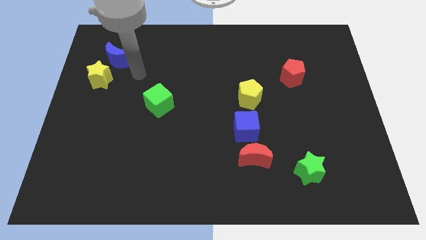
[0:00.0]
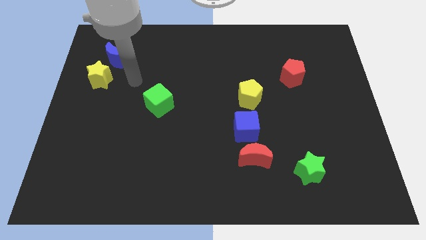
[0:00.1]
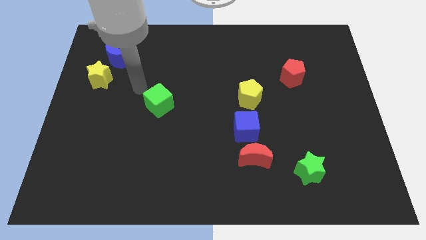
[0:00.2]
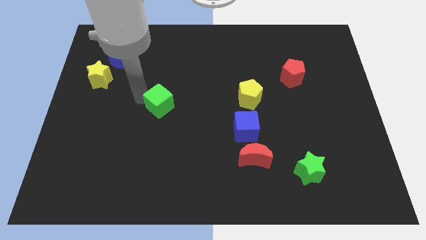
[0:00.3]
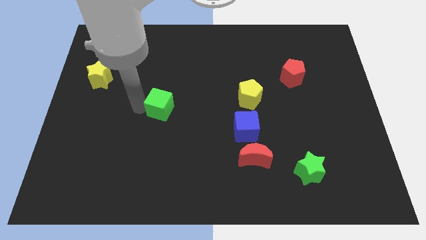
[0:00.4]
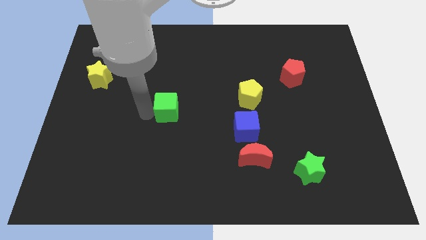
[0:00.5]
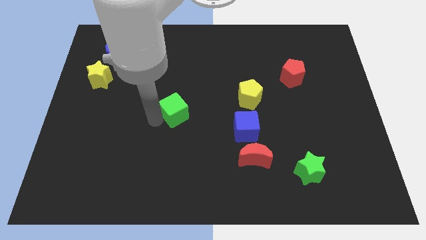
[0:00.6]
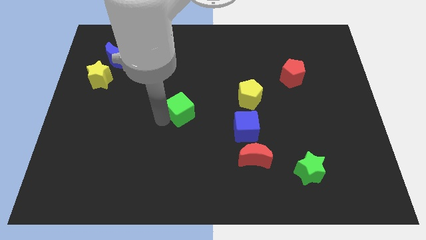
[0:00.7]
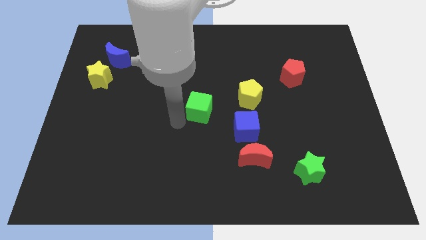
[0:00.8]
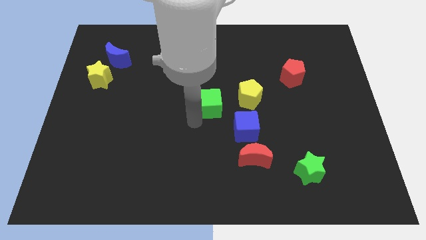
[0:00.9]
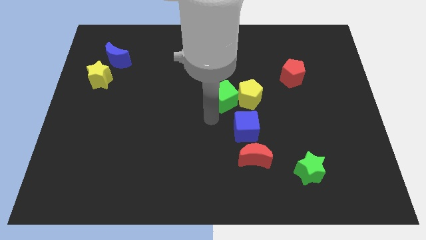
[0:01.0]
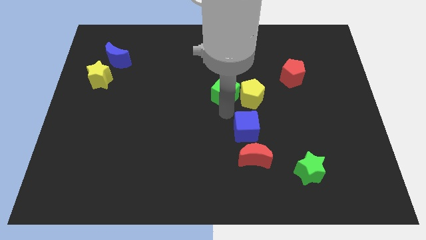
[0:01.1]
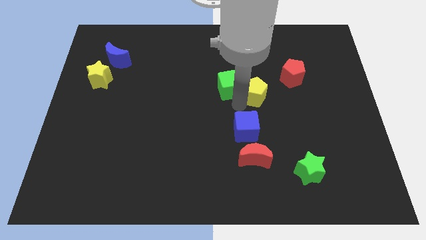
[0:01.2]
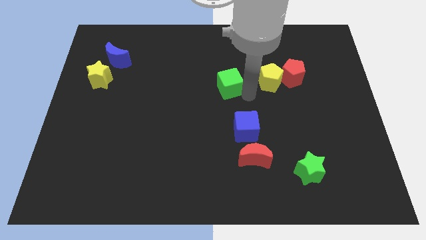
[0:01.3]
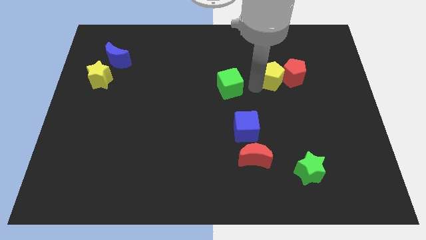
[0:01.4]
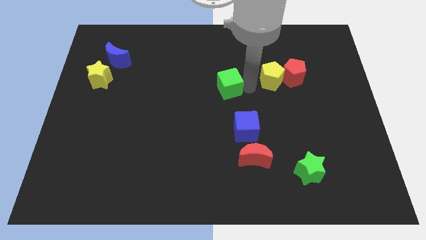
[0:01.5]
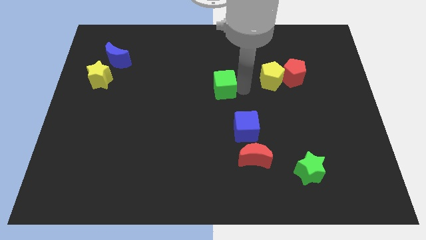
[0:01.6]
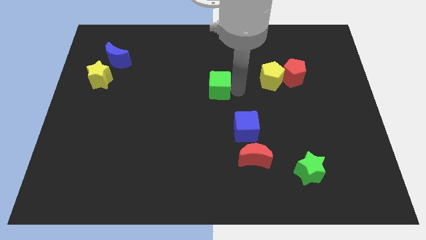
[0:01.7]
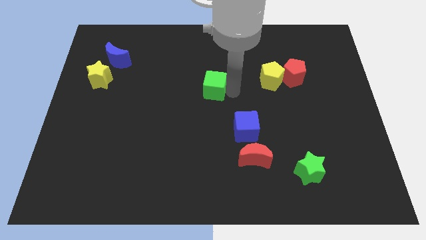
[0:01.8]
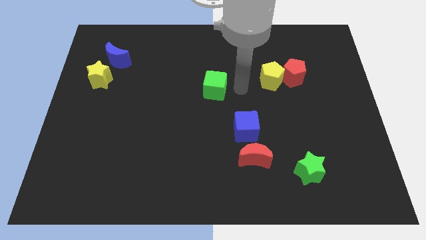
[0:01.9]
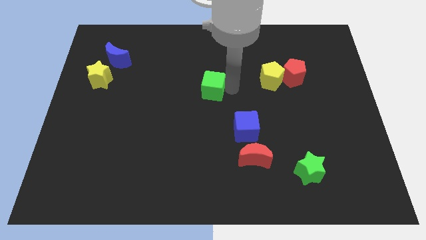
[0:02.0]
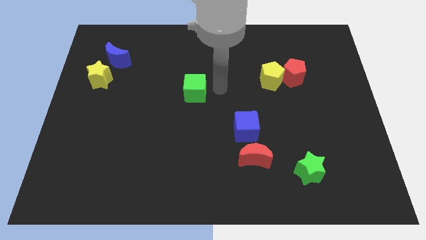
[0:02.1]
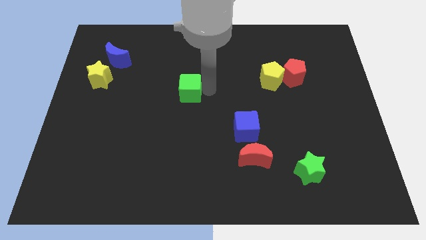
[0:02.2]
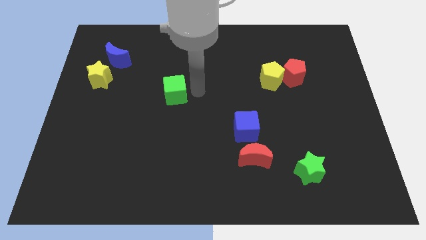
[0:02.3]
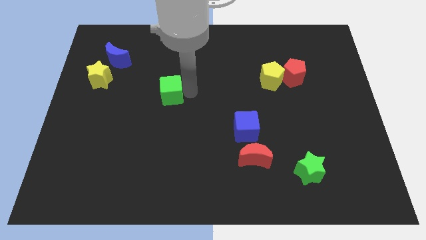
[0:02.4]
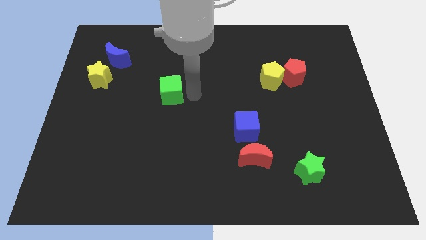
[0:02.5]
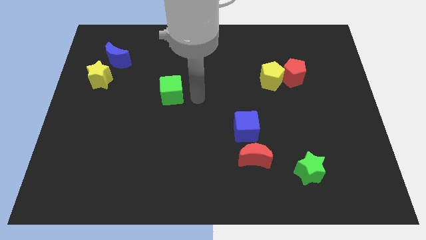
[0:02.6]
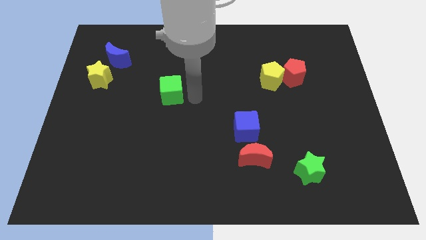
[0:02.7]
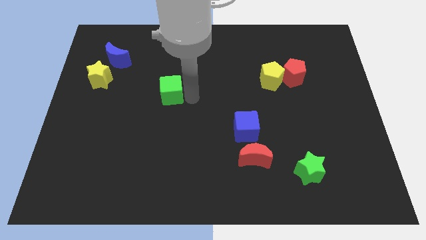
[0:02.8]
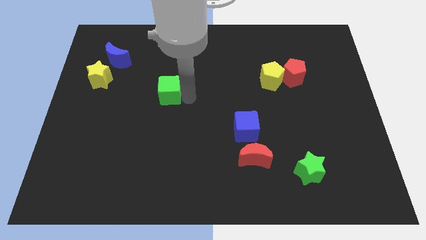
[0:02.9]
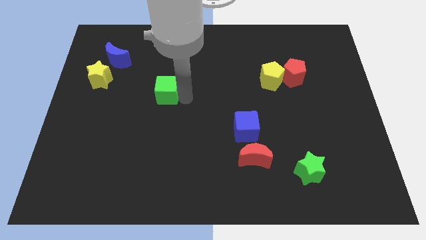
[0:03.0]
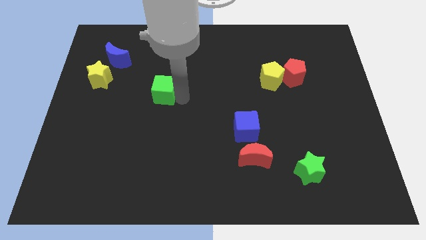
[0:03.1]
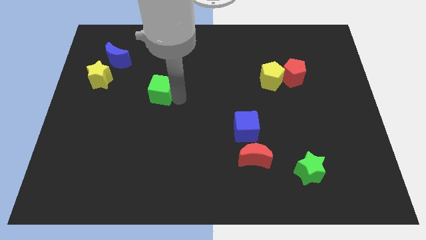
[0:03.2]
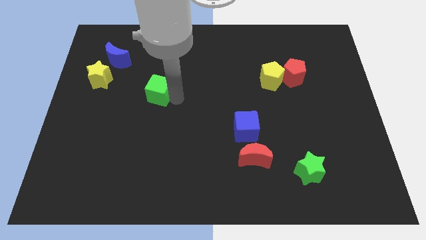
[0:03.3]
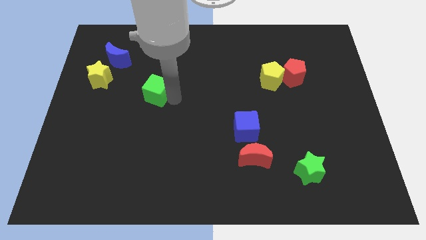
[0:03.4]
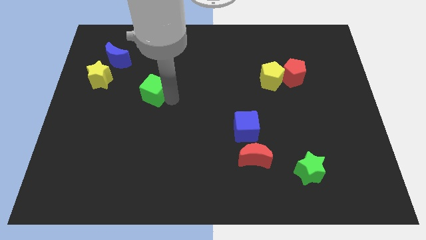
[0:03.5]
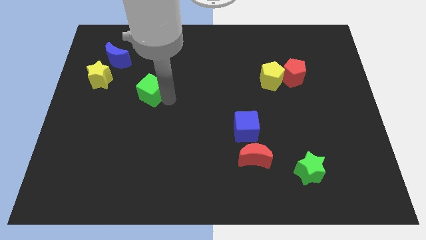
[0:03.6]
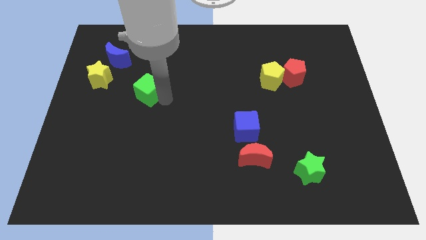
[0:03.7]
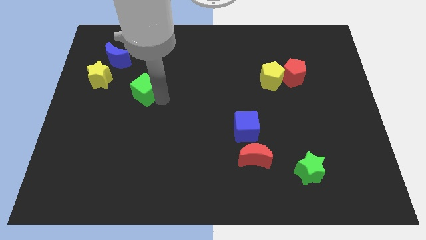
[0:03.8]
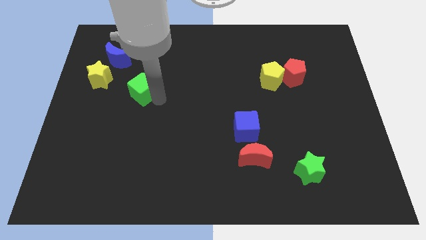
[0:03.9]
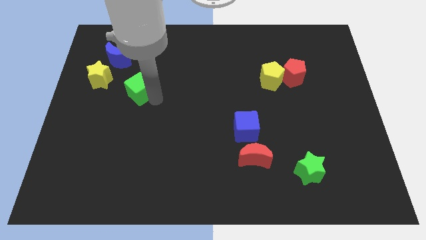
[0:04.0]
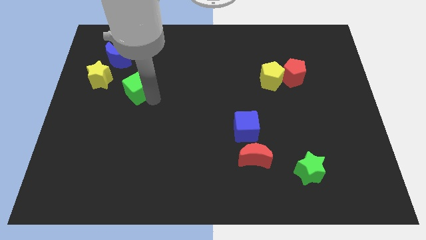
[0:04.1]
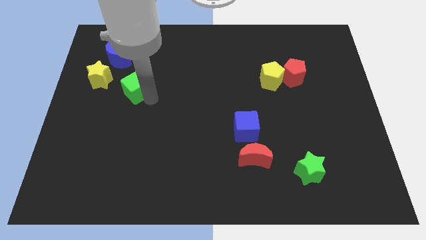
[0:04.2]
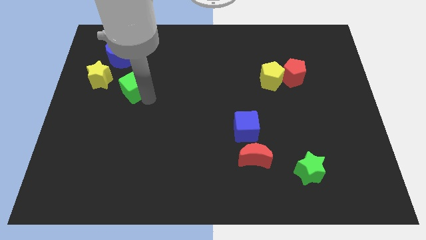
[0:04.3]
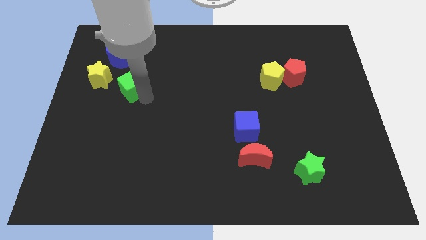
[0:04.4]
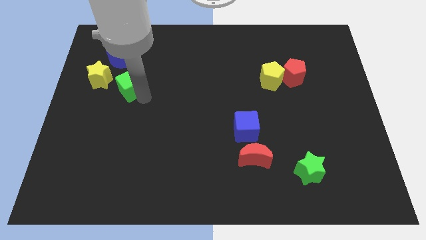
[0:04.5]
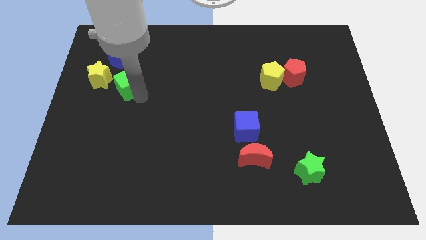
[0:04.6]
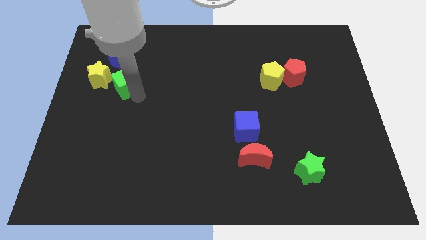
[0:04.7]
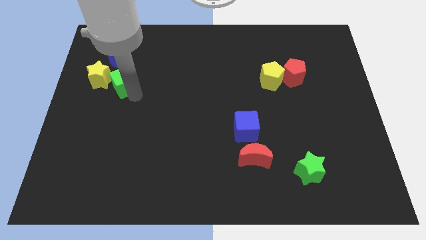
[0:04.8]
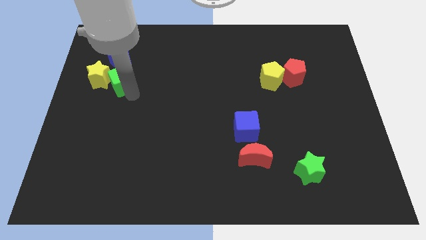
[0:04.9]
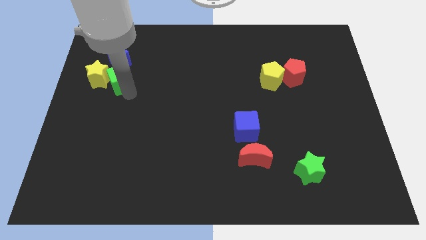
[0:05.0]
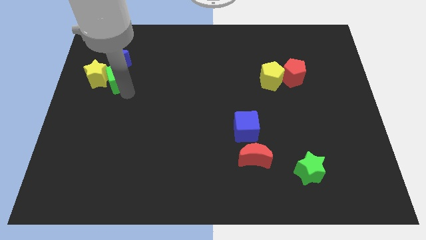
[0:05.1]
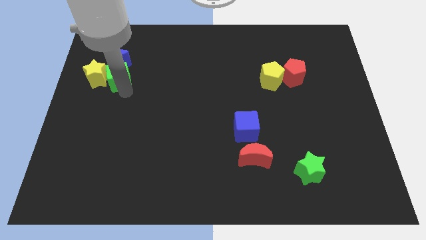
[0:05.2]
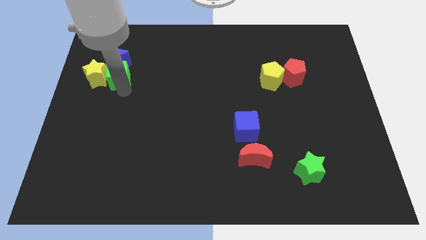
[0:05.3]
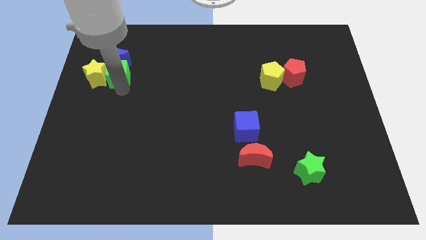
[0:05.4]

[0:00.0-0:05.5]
move the green cube close to the blue moon

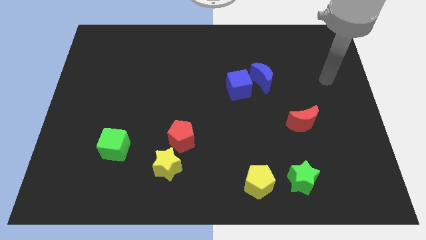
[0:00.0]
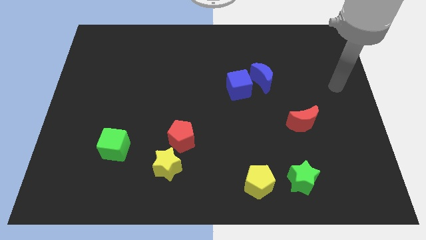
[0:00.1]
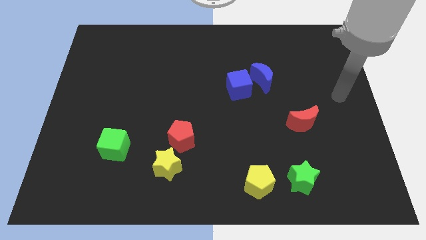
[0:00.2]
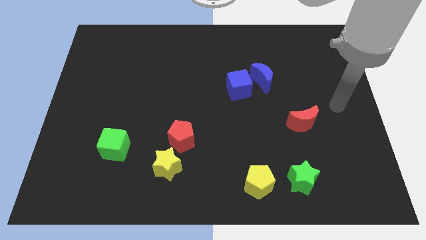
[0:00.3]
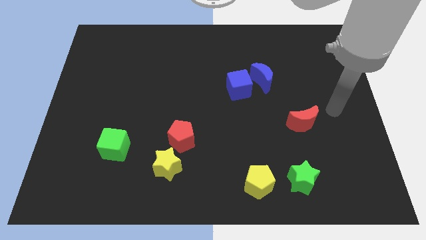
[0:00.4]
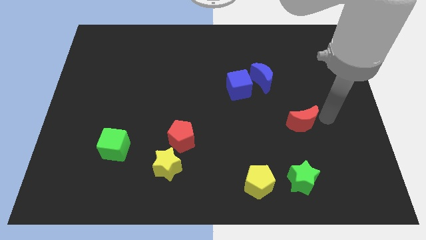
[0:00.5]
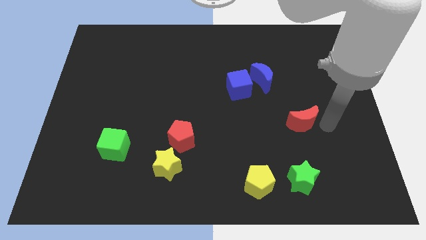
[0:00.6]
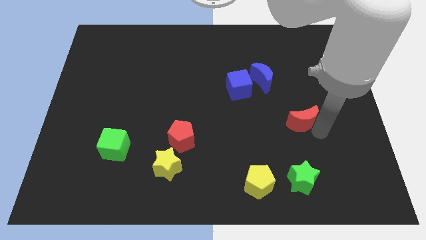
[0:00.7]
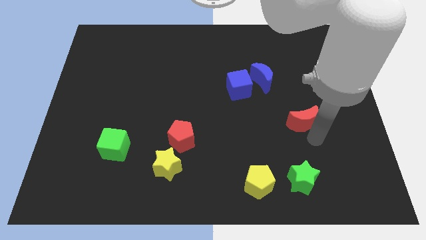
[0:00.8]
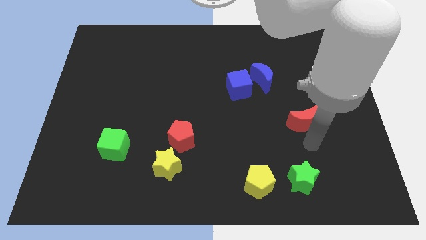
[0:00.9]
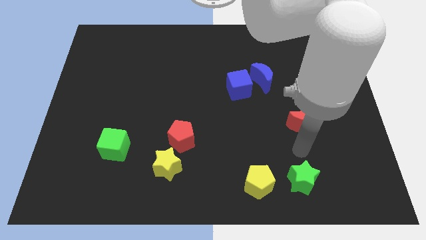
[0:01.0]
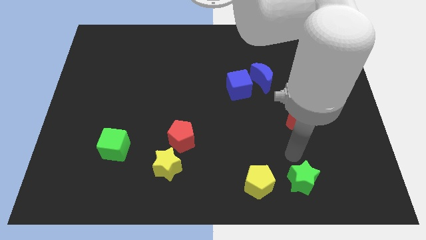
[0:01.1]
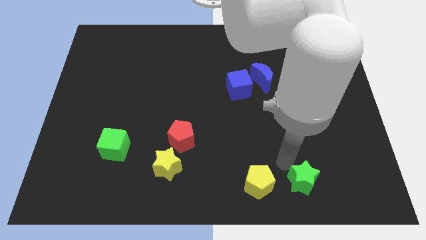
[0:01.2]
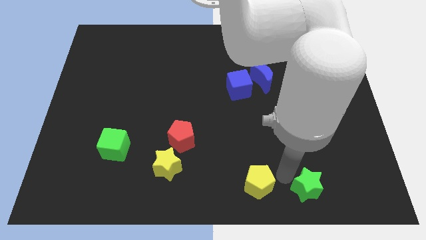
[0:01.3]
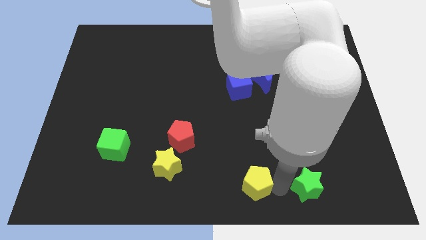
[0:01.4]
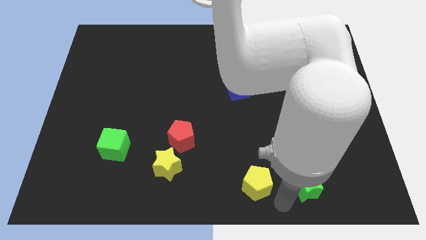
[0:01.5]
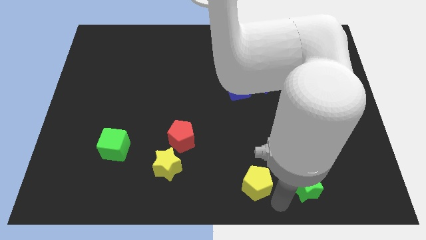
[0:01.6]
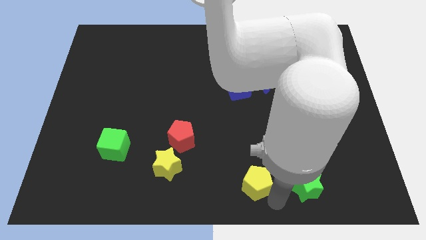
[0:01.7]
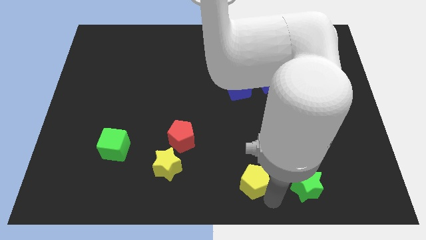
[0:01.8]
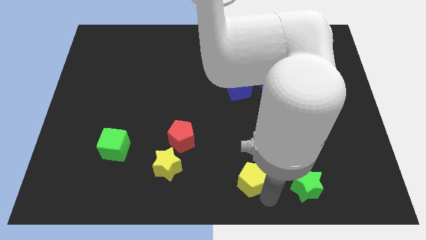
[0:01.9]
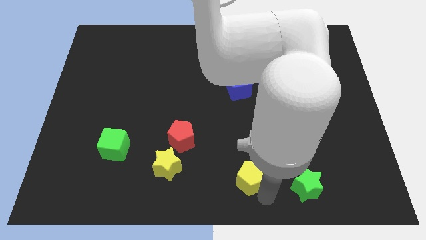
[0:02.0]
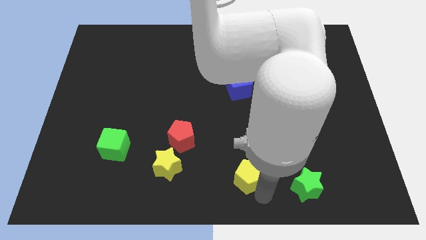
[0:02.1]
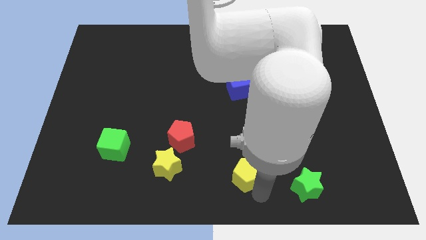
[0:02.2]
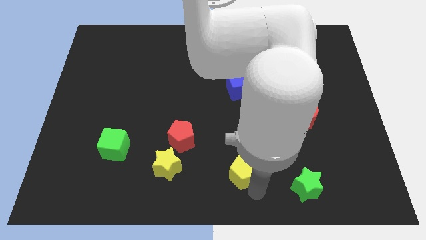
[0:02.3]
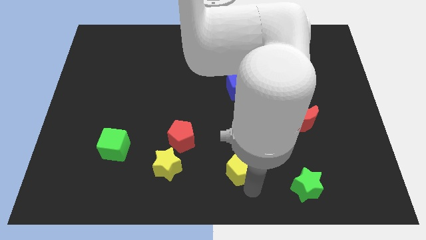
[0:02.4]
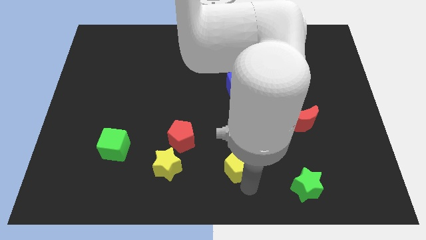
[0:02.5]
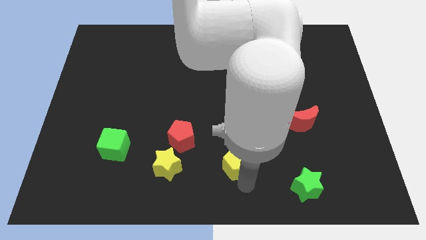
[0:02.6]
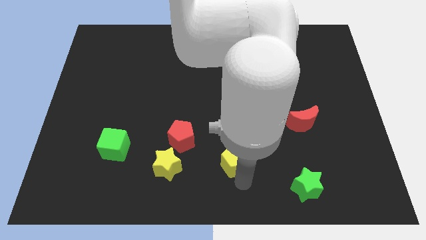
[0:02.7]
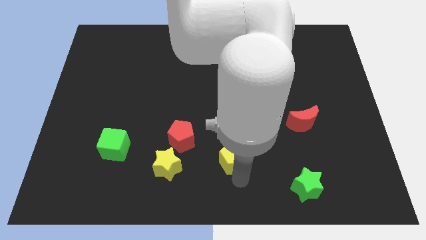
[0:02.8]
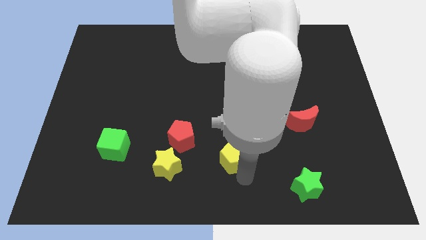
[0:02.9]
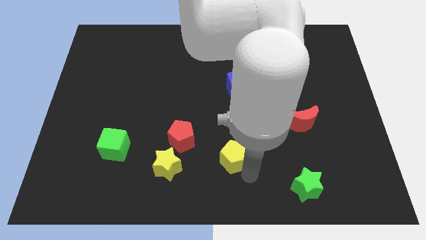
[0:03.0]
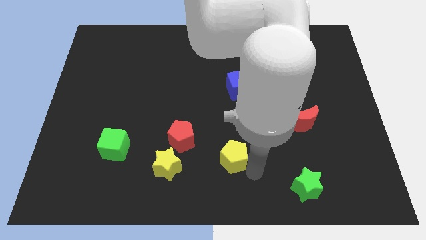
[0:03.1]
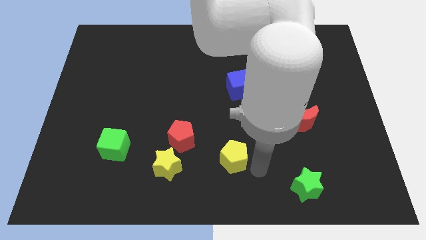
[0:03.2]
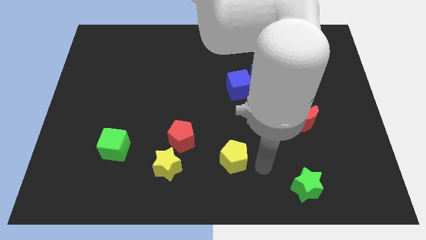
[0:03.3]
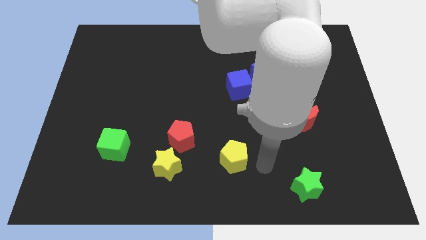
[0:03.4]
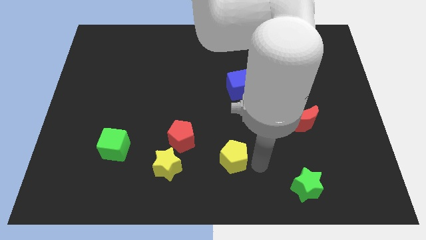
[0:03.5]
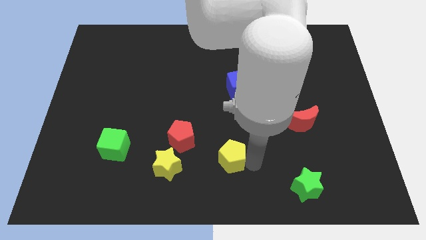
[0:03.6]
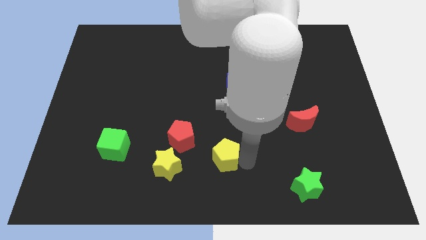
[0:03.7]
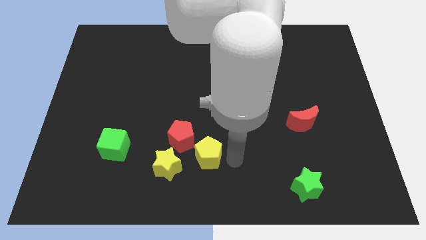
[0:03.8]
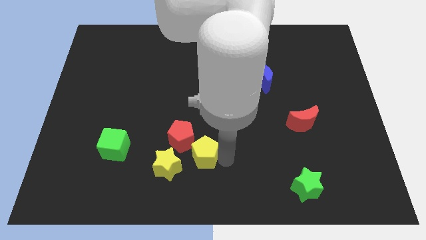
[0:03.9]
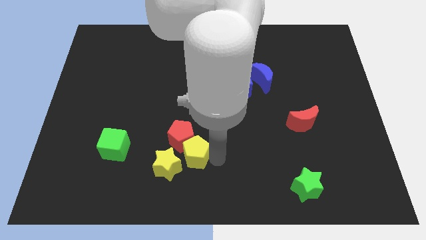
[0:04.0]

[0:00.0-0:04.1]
move the yellow pentagon to the red pentagon
